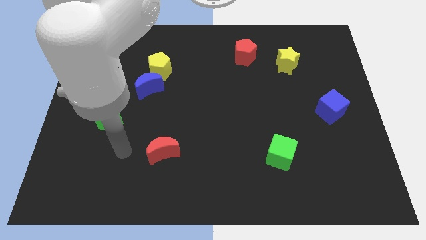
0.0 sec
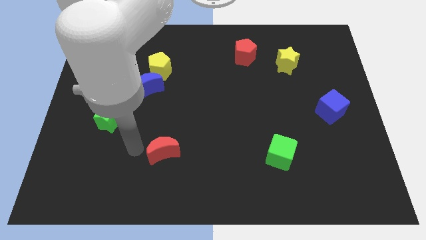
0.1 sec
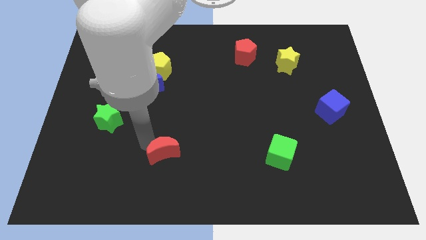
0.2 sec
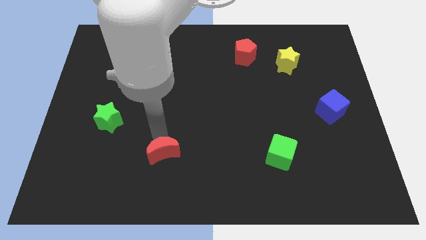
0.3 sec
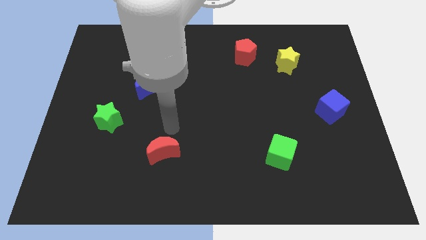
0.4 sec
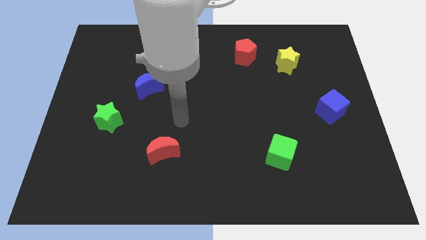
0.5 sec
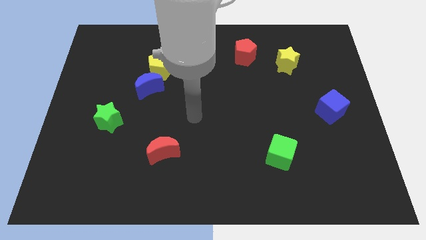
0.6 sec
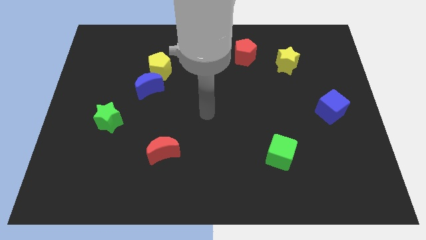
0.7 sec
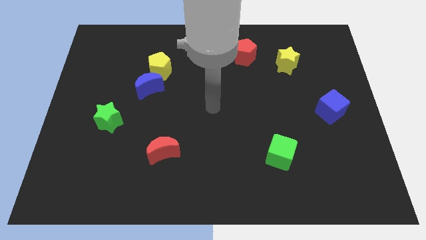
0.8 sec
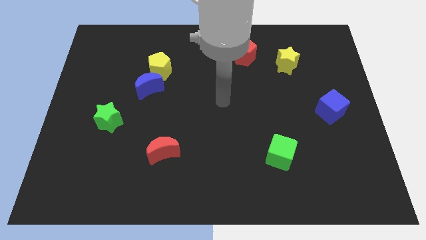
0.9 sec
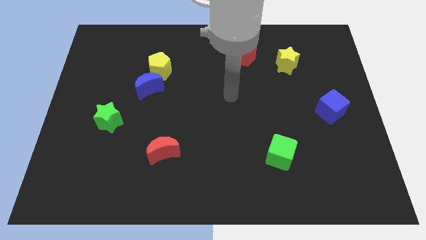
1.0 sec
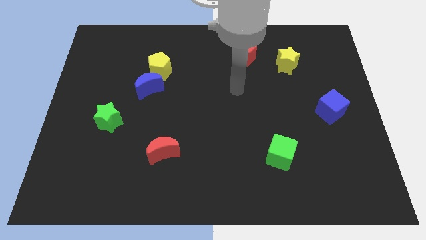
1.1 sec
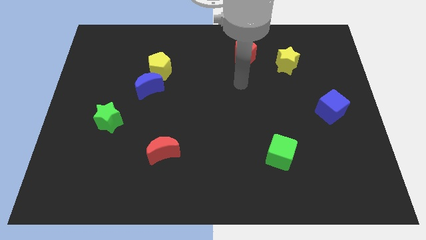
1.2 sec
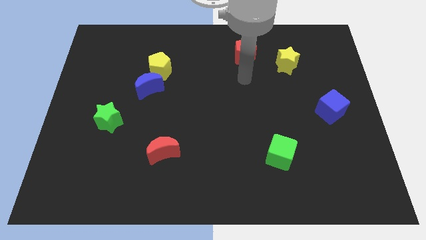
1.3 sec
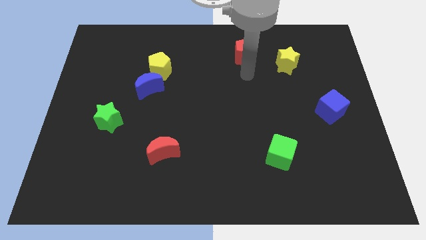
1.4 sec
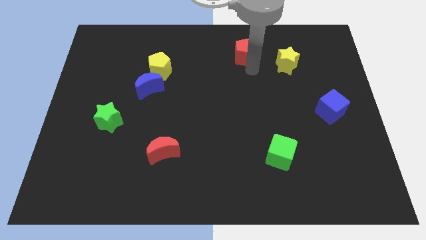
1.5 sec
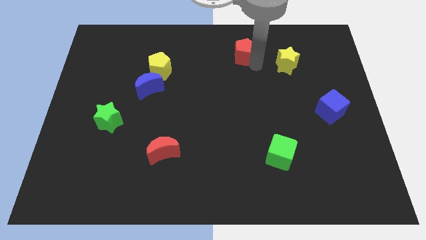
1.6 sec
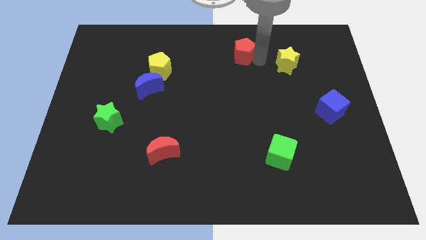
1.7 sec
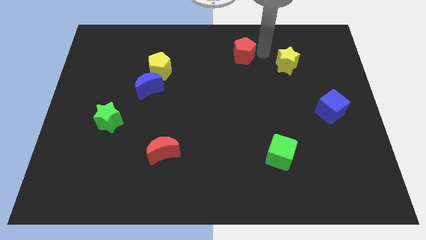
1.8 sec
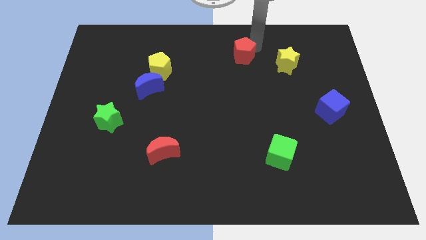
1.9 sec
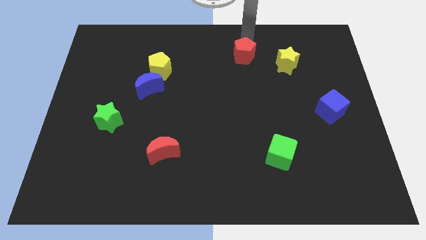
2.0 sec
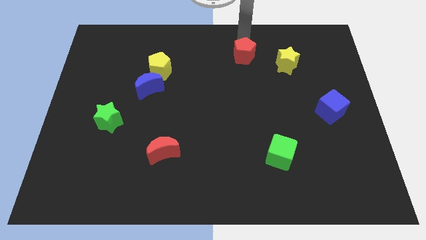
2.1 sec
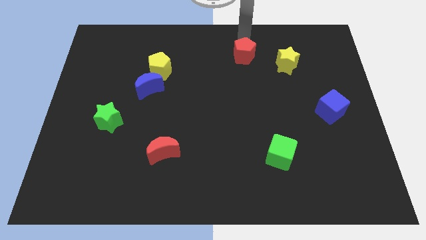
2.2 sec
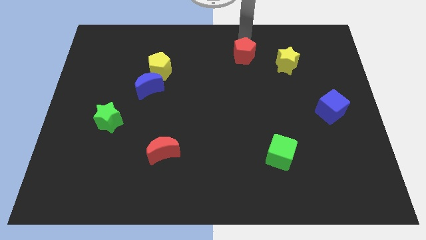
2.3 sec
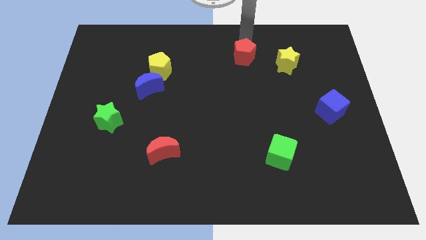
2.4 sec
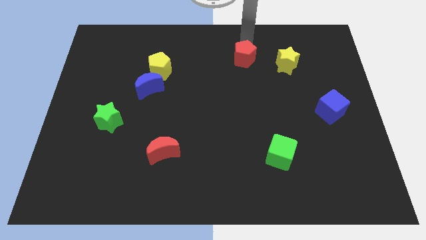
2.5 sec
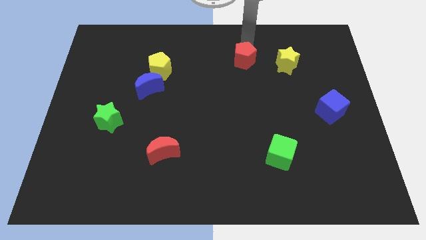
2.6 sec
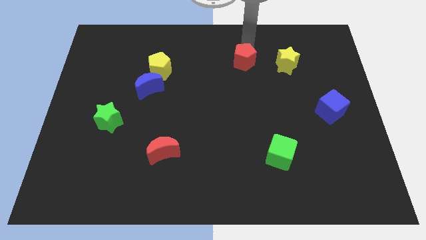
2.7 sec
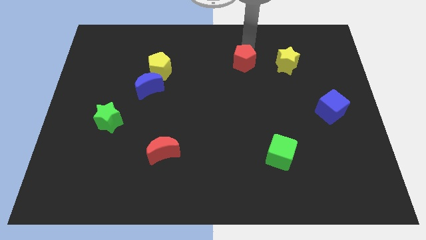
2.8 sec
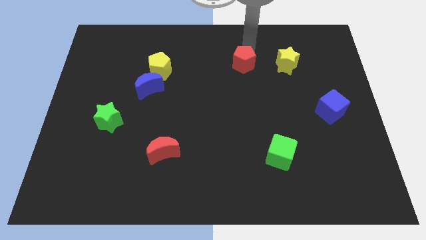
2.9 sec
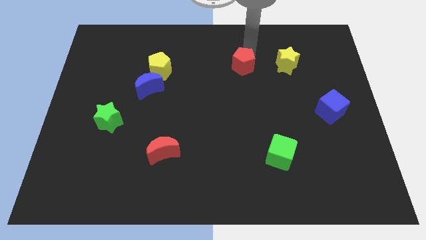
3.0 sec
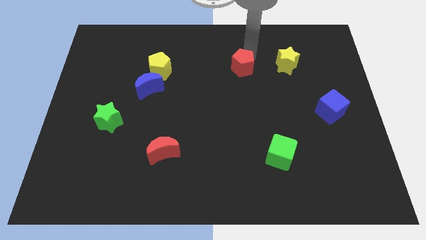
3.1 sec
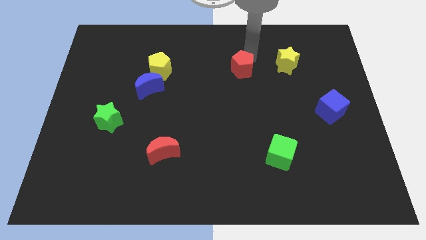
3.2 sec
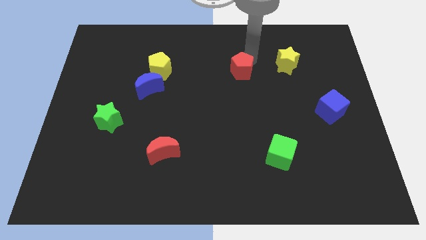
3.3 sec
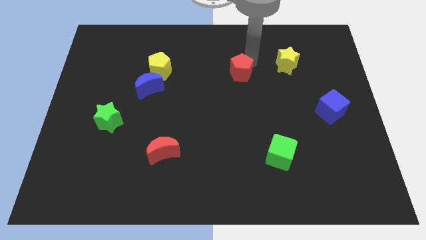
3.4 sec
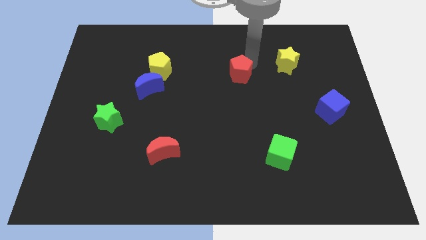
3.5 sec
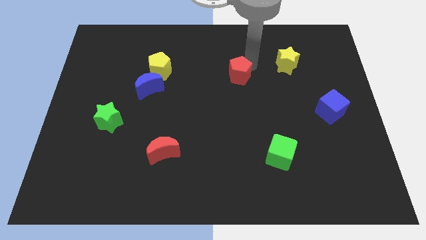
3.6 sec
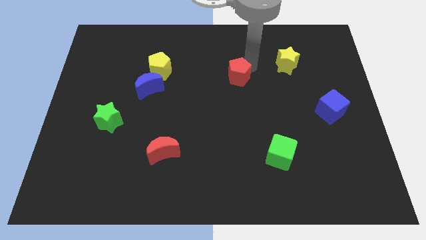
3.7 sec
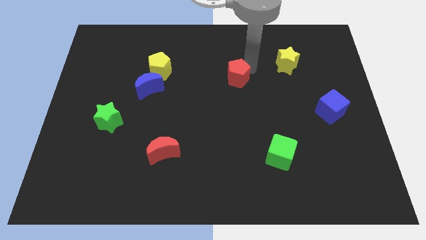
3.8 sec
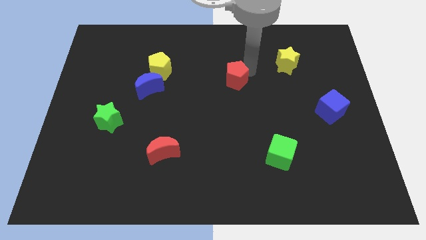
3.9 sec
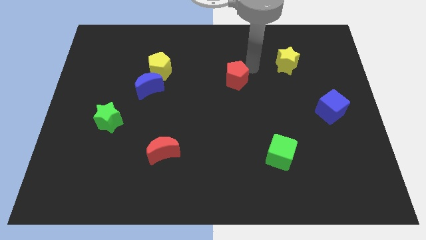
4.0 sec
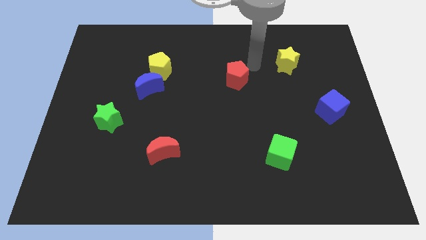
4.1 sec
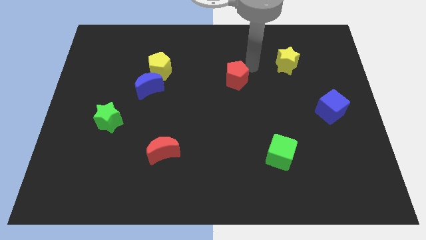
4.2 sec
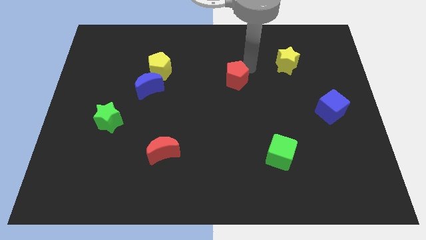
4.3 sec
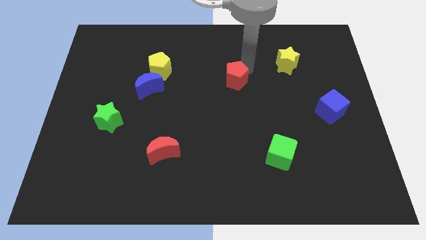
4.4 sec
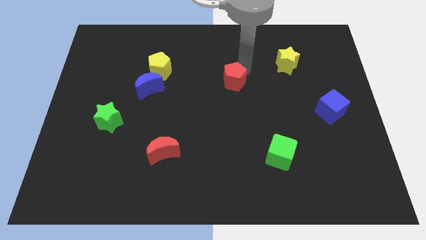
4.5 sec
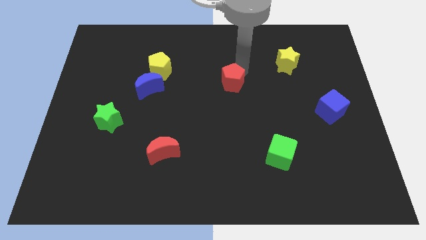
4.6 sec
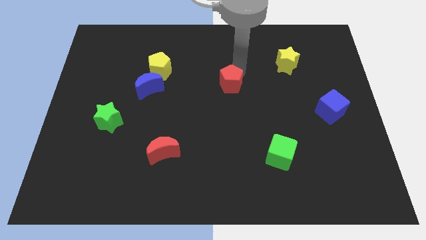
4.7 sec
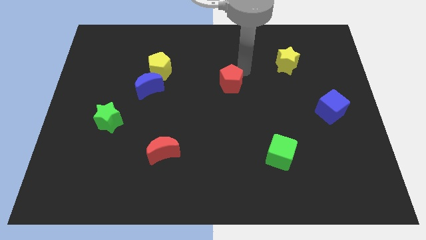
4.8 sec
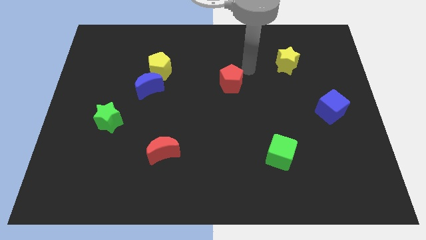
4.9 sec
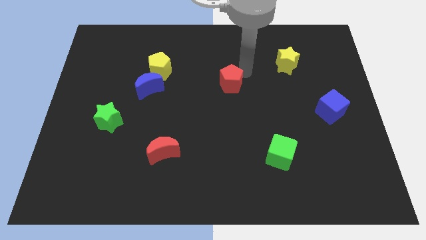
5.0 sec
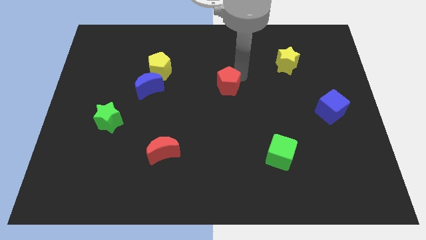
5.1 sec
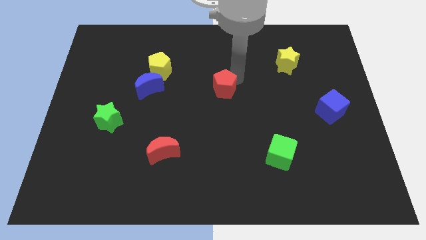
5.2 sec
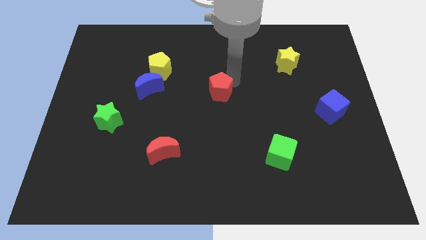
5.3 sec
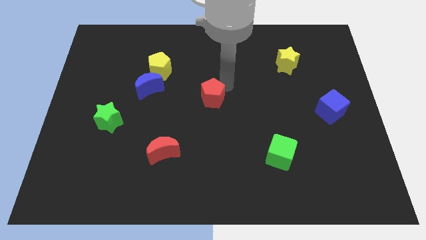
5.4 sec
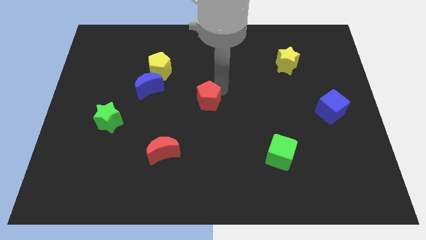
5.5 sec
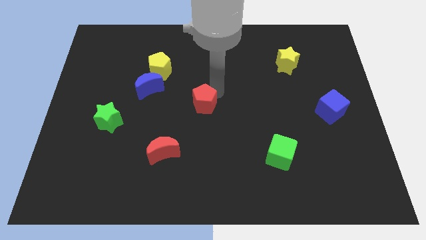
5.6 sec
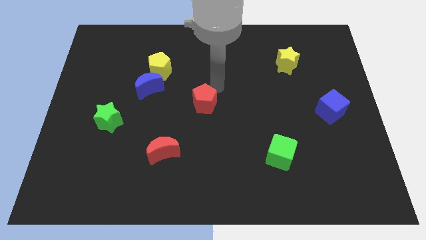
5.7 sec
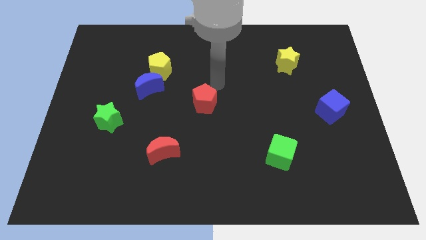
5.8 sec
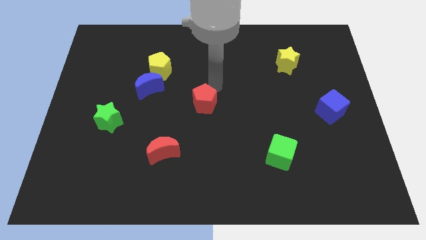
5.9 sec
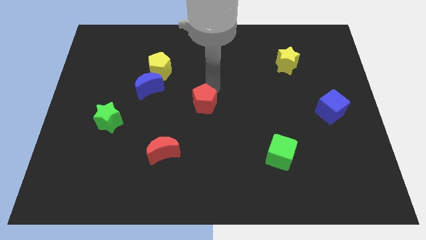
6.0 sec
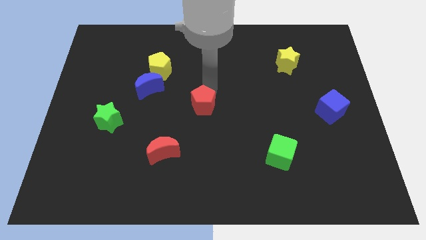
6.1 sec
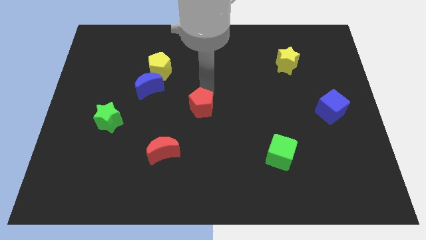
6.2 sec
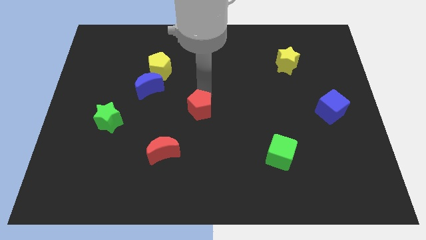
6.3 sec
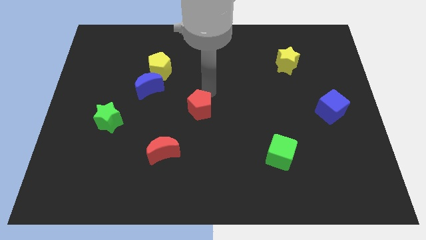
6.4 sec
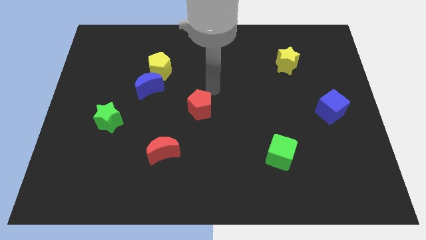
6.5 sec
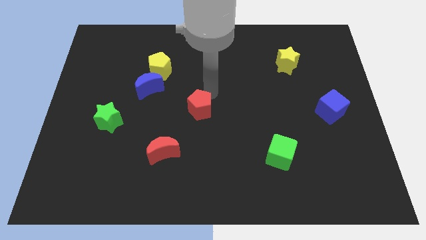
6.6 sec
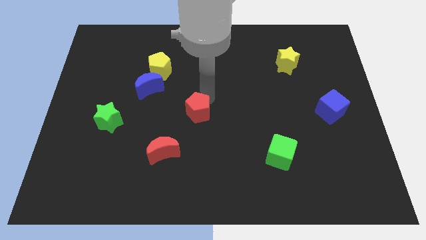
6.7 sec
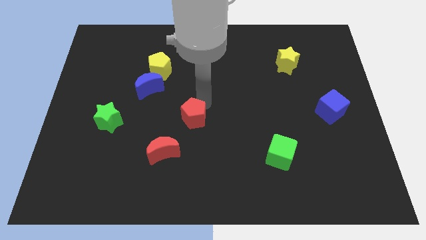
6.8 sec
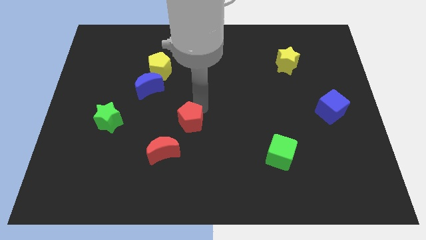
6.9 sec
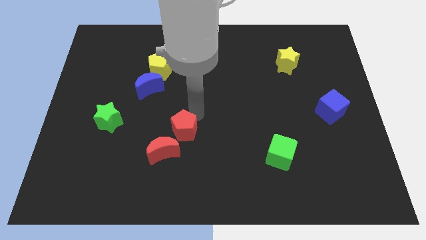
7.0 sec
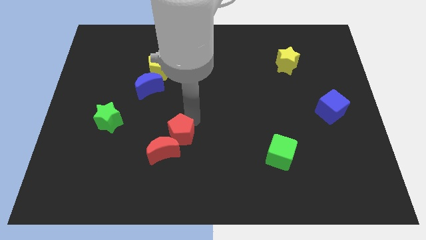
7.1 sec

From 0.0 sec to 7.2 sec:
move the red pentagon to the red moon
